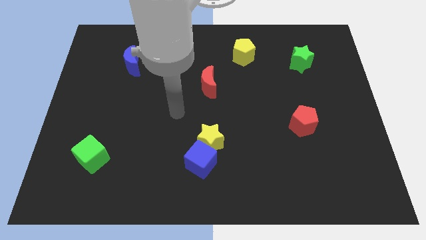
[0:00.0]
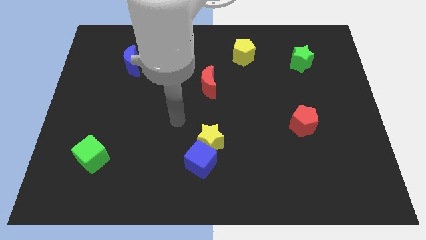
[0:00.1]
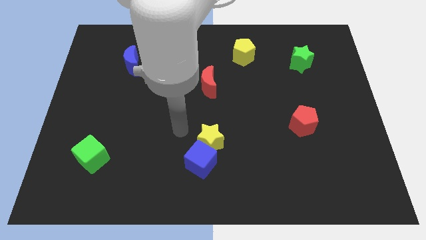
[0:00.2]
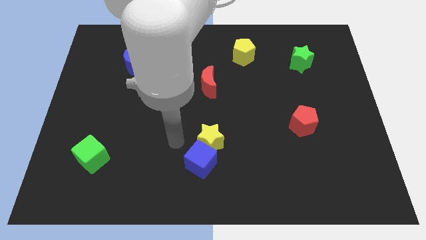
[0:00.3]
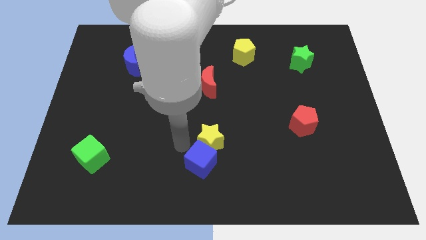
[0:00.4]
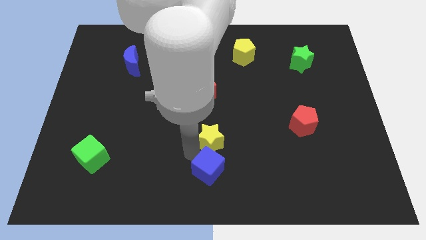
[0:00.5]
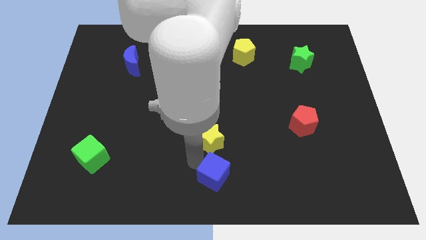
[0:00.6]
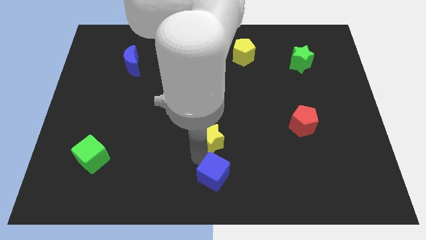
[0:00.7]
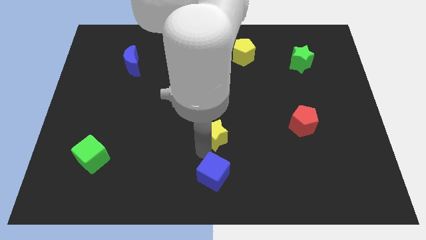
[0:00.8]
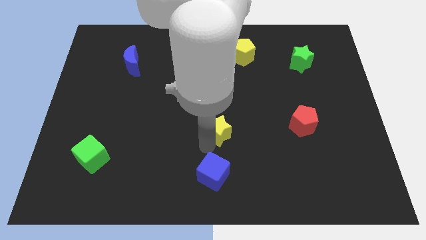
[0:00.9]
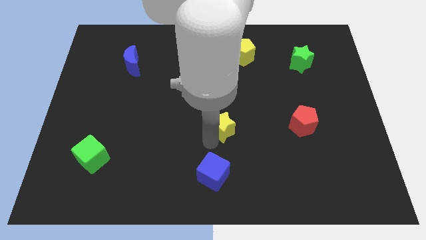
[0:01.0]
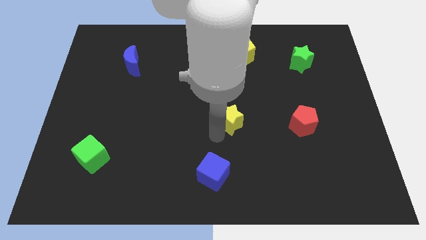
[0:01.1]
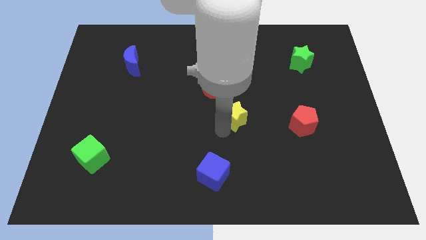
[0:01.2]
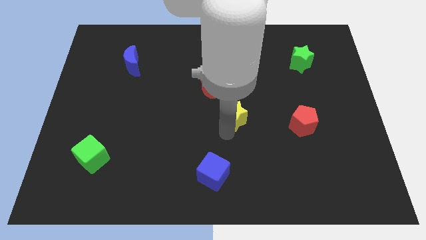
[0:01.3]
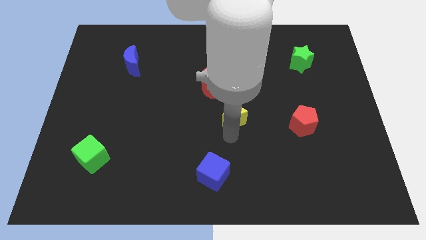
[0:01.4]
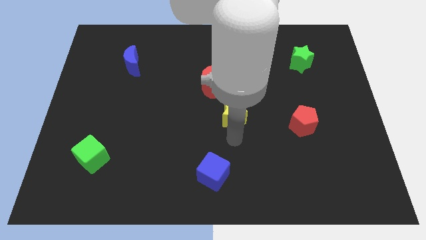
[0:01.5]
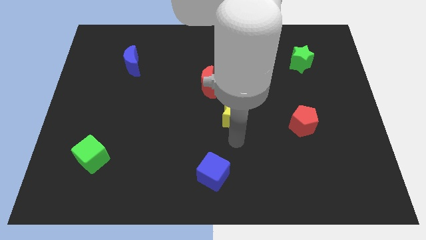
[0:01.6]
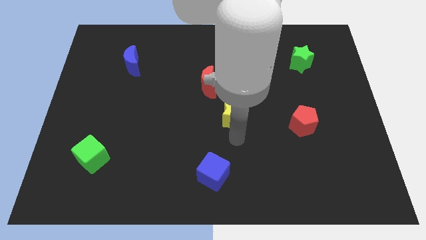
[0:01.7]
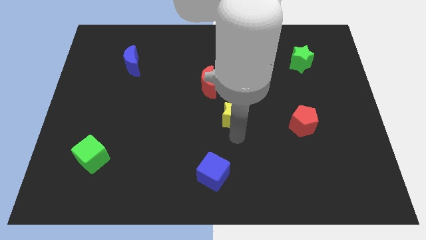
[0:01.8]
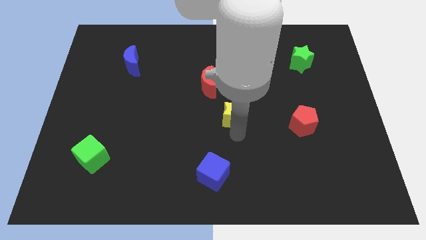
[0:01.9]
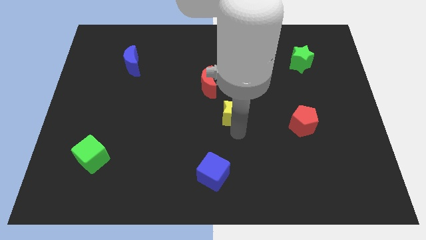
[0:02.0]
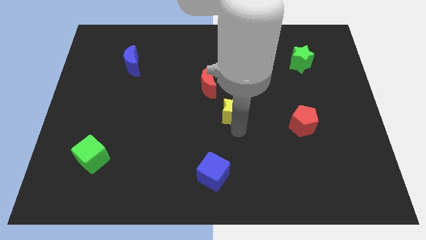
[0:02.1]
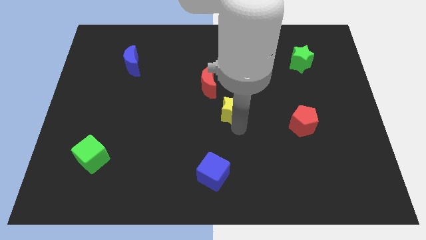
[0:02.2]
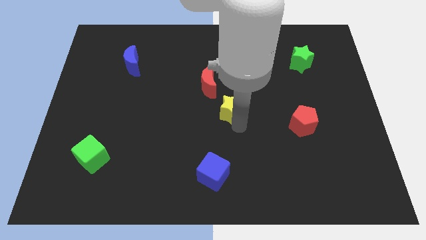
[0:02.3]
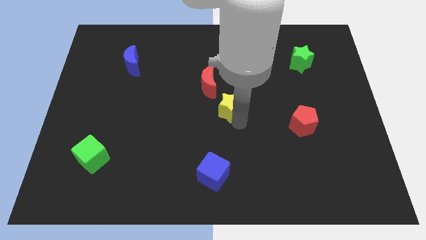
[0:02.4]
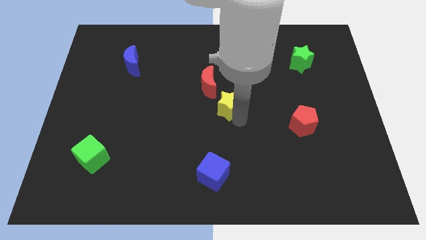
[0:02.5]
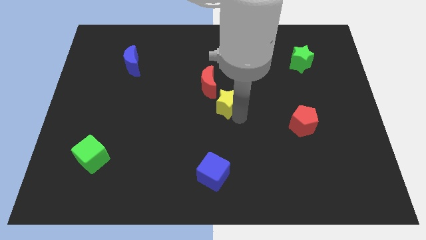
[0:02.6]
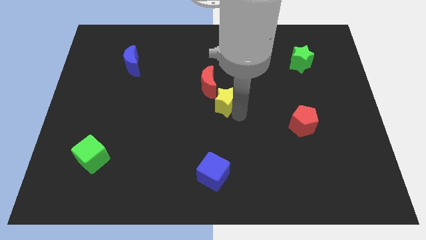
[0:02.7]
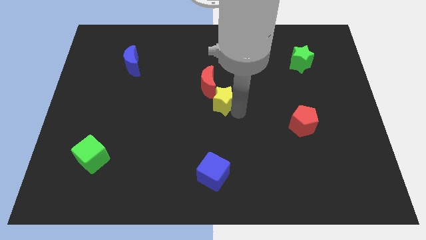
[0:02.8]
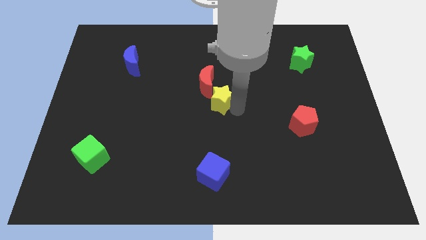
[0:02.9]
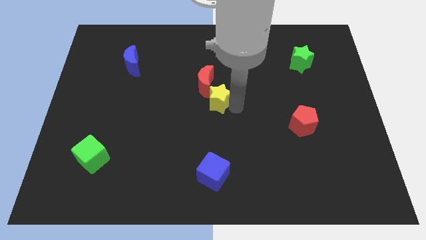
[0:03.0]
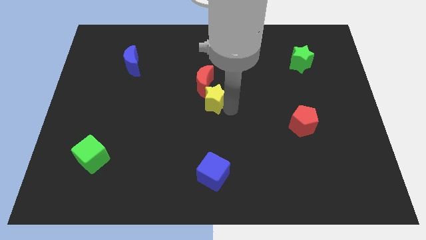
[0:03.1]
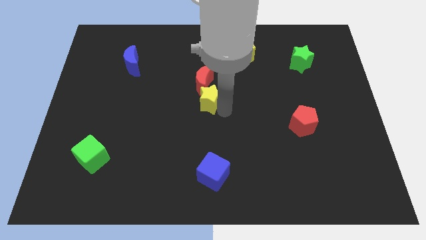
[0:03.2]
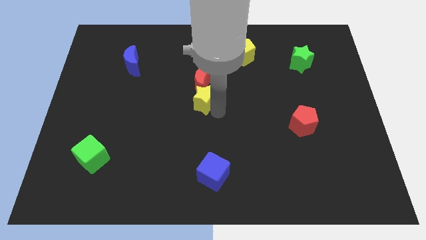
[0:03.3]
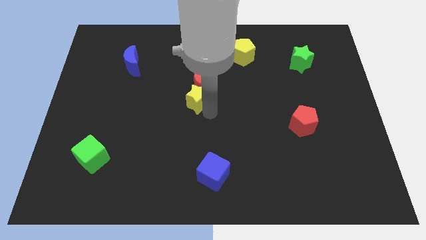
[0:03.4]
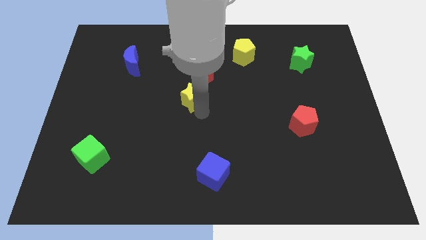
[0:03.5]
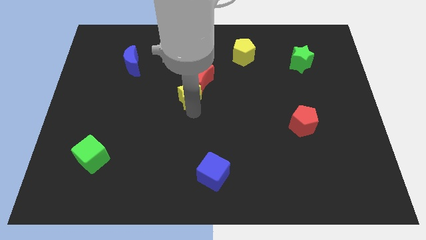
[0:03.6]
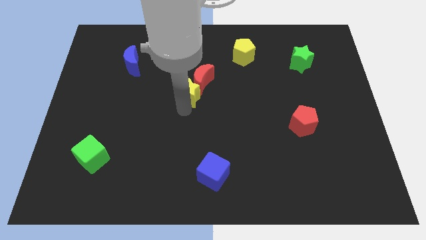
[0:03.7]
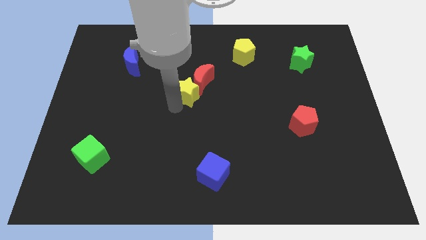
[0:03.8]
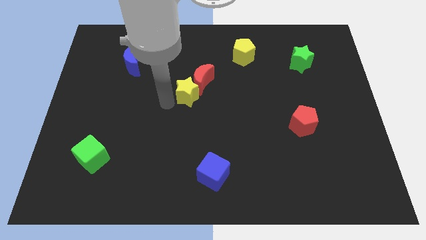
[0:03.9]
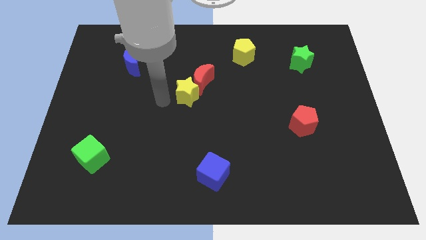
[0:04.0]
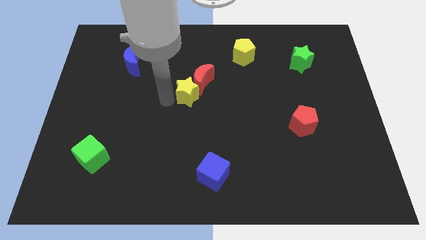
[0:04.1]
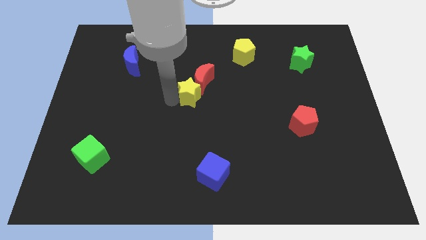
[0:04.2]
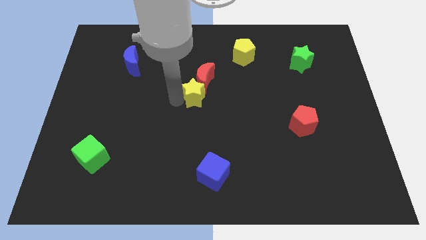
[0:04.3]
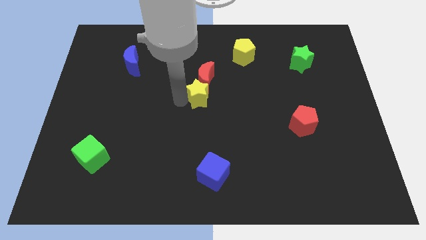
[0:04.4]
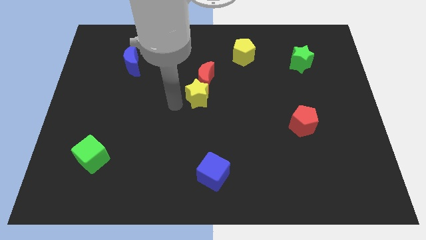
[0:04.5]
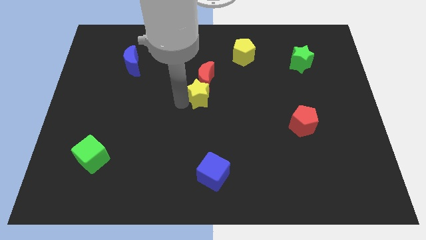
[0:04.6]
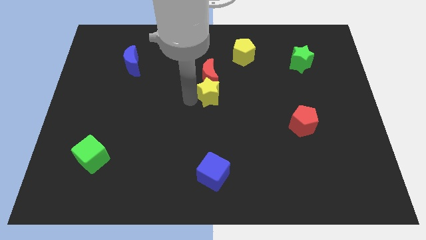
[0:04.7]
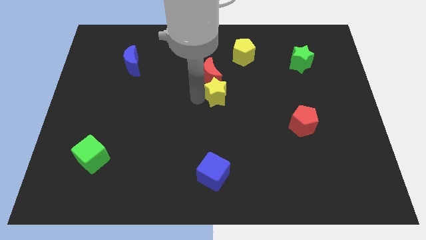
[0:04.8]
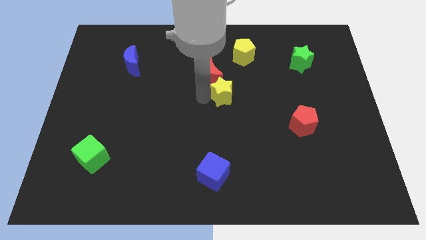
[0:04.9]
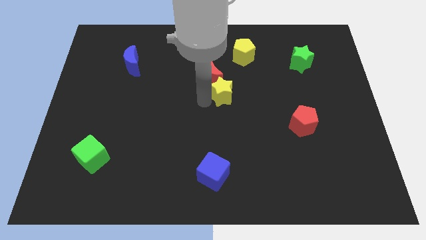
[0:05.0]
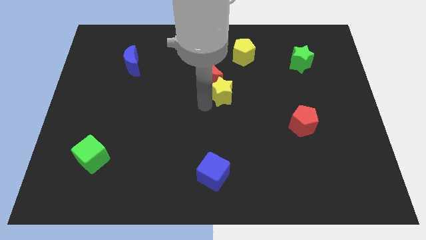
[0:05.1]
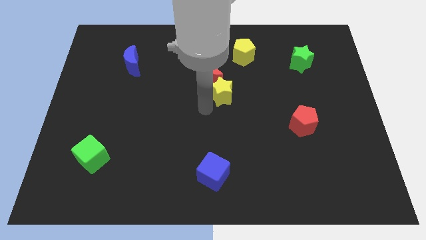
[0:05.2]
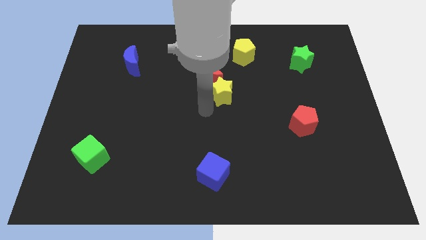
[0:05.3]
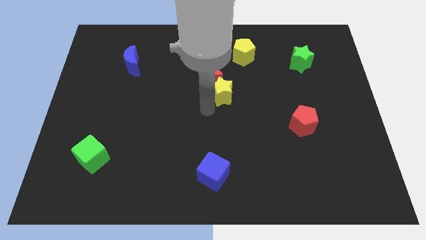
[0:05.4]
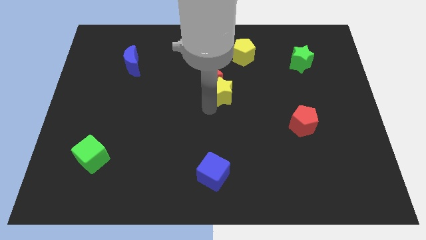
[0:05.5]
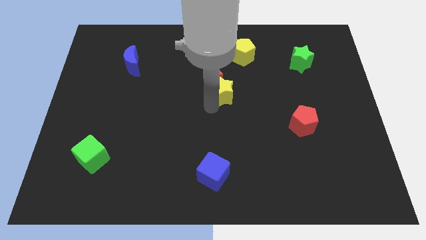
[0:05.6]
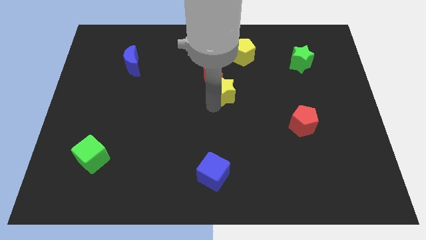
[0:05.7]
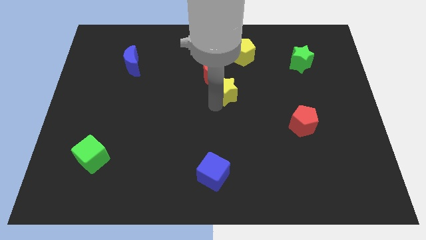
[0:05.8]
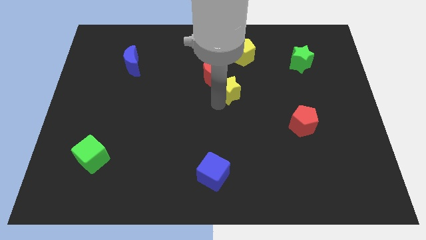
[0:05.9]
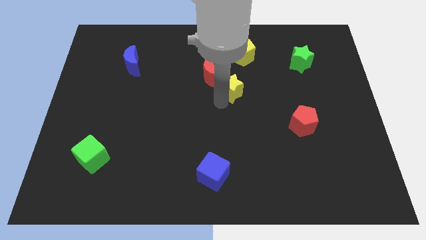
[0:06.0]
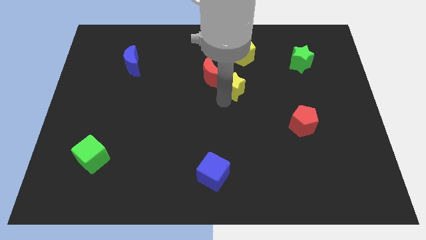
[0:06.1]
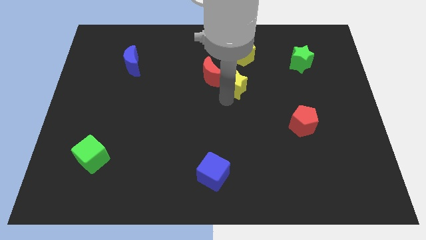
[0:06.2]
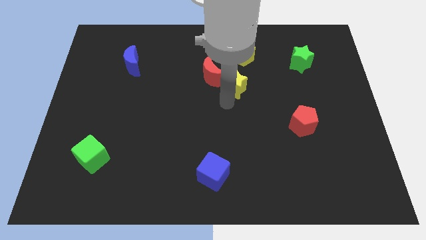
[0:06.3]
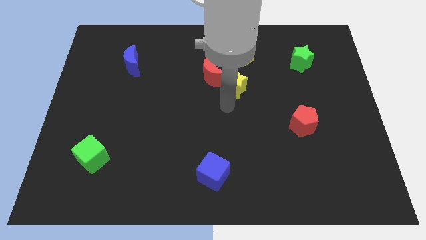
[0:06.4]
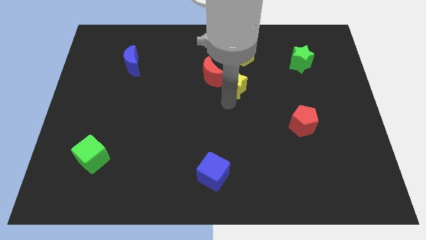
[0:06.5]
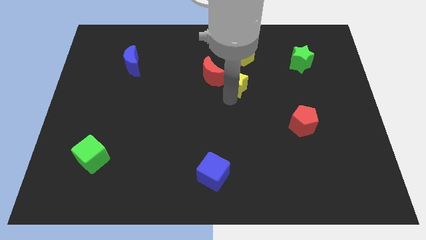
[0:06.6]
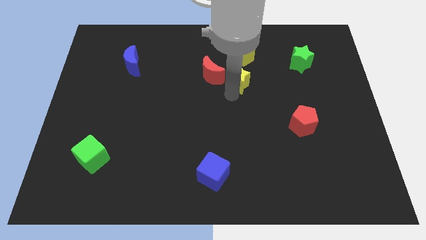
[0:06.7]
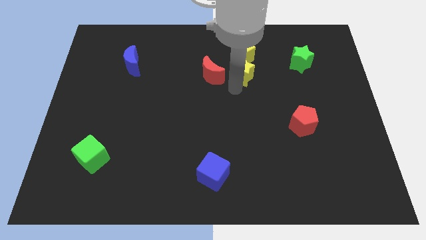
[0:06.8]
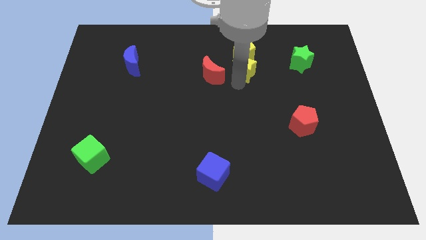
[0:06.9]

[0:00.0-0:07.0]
put the yellow star next to the yellow pentagon
